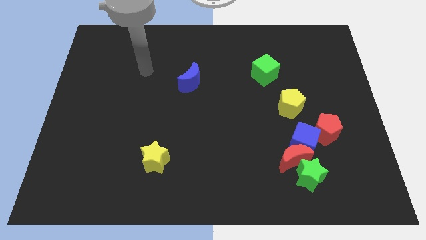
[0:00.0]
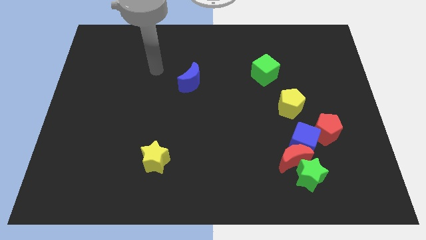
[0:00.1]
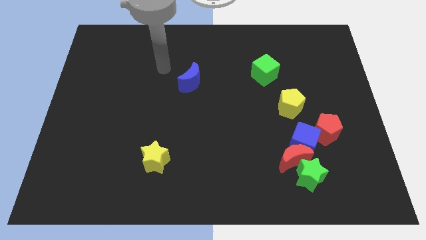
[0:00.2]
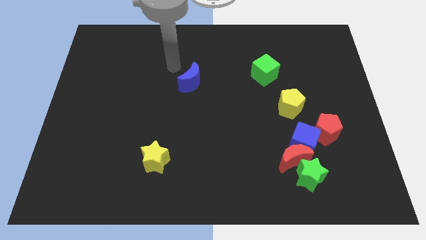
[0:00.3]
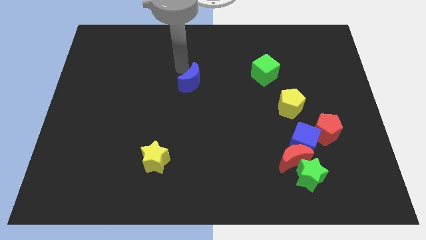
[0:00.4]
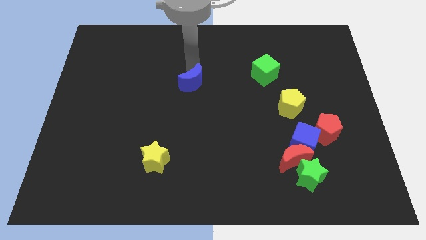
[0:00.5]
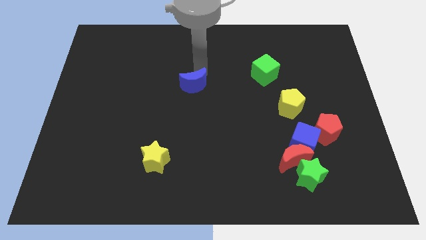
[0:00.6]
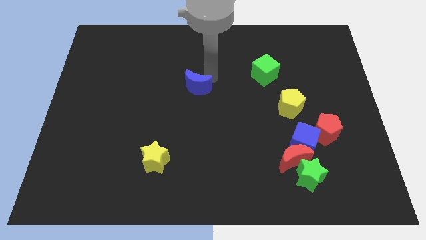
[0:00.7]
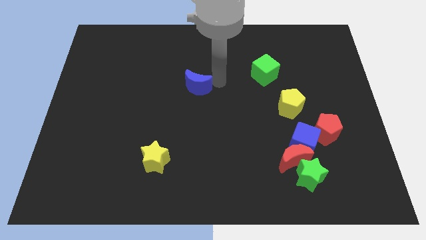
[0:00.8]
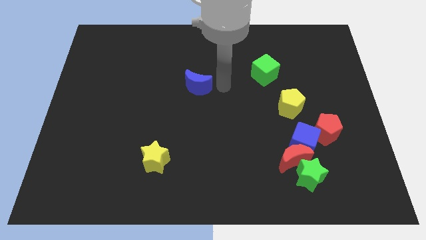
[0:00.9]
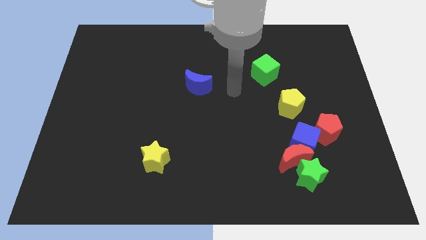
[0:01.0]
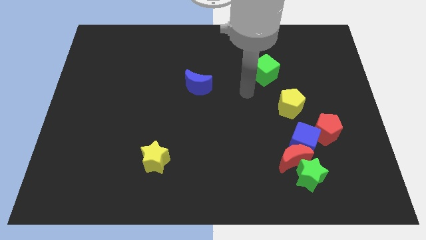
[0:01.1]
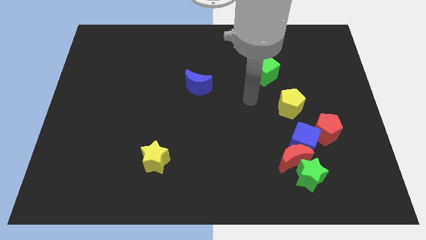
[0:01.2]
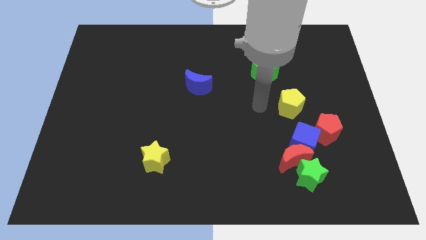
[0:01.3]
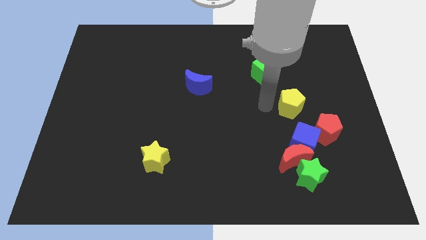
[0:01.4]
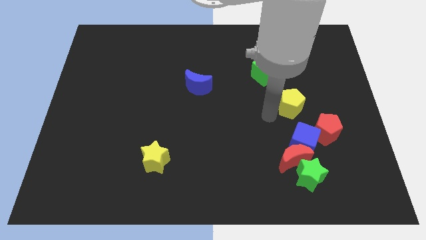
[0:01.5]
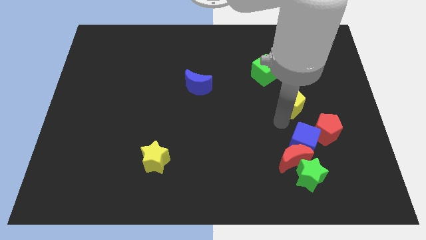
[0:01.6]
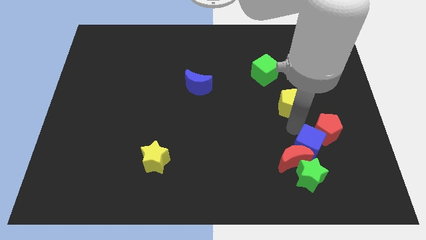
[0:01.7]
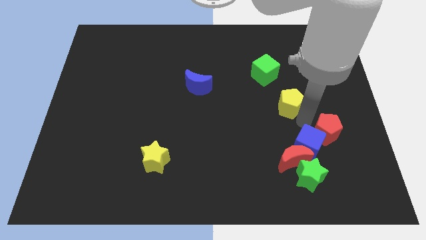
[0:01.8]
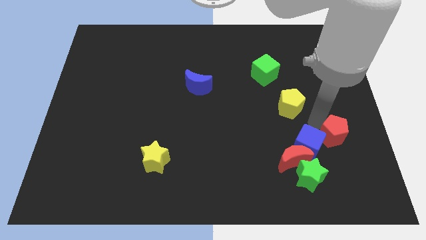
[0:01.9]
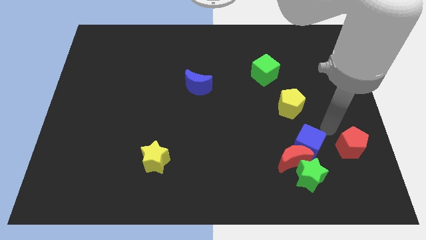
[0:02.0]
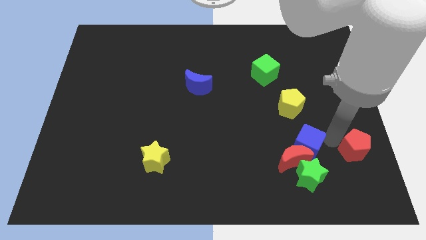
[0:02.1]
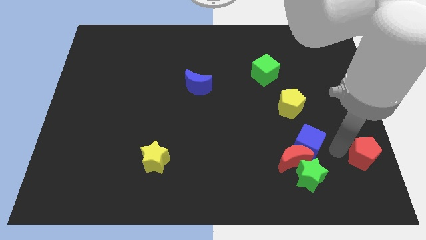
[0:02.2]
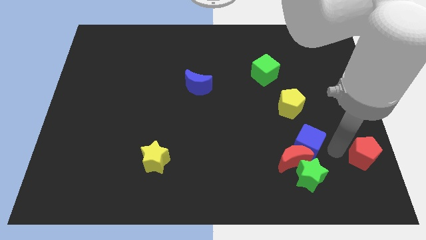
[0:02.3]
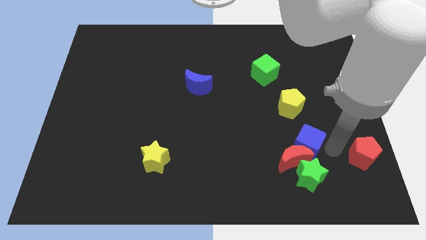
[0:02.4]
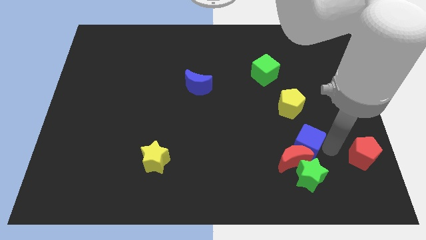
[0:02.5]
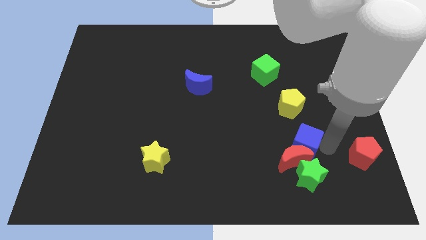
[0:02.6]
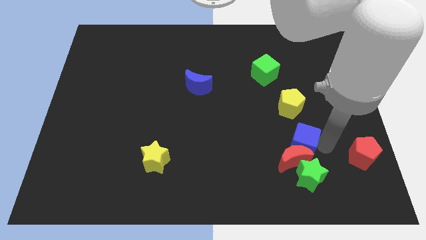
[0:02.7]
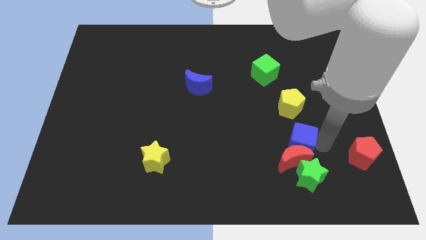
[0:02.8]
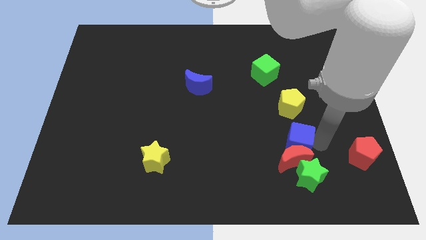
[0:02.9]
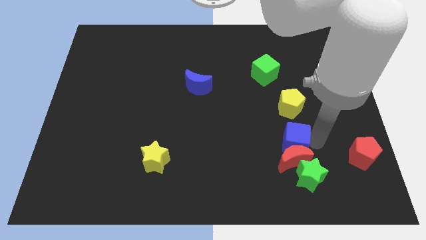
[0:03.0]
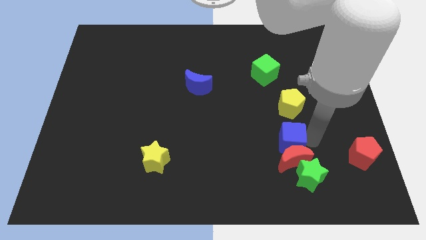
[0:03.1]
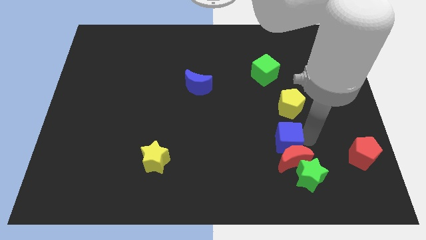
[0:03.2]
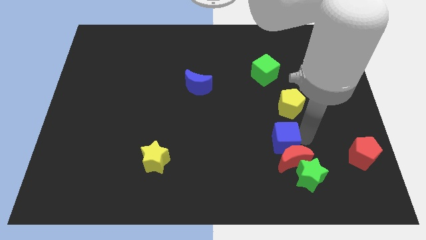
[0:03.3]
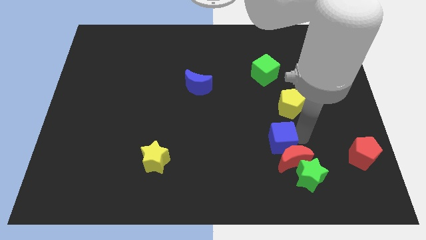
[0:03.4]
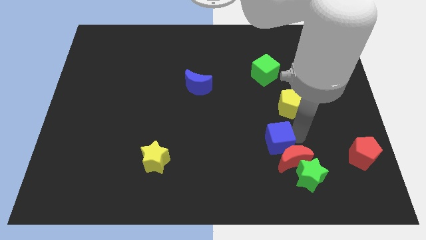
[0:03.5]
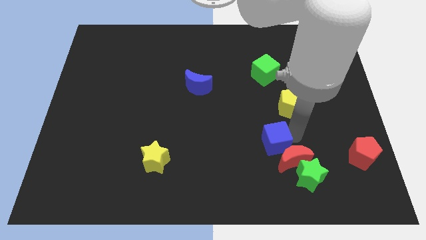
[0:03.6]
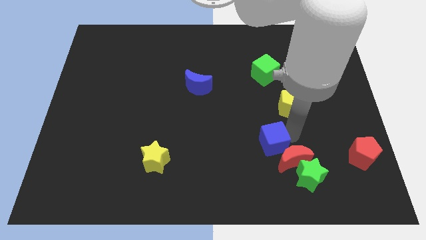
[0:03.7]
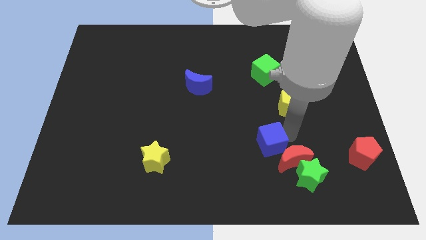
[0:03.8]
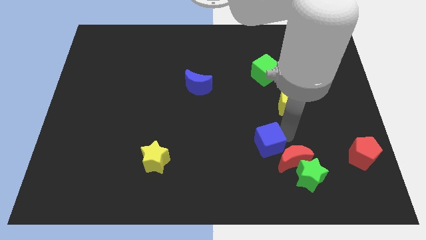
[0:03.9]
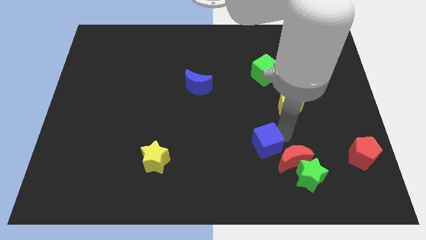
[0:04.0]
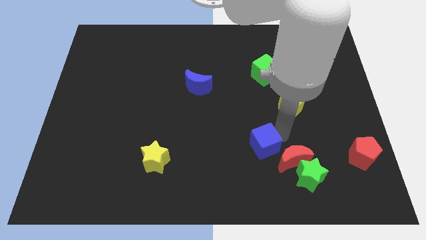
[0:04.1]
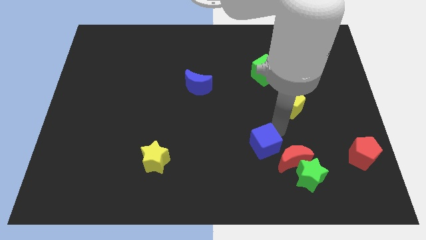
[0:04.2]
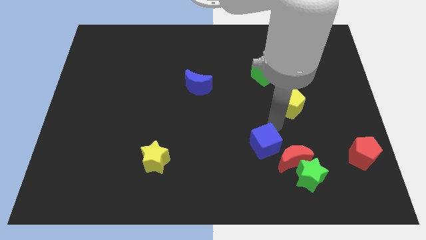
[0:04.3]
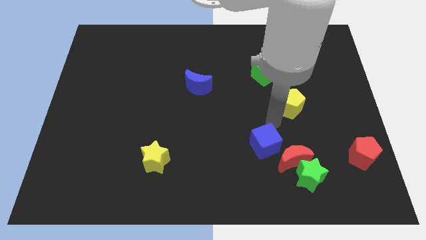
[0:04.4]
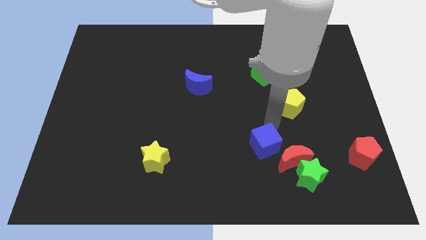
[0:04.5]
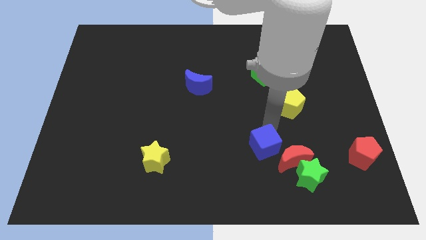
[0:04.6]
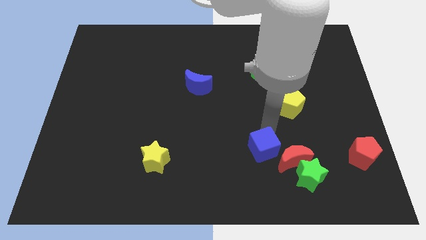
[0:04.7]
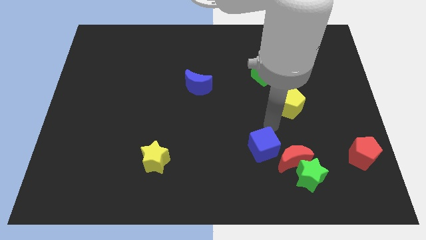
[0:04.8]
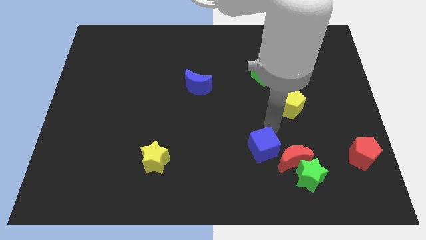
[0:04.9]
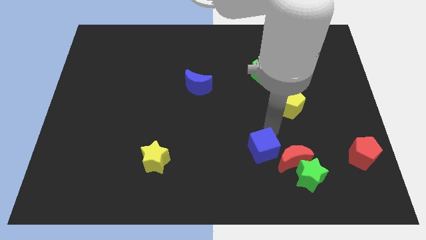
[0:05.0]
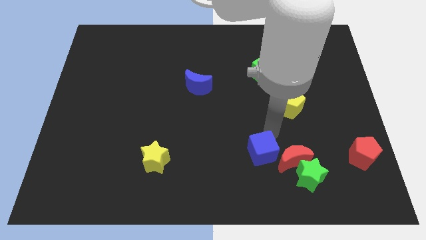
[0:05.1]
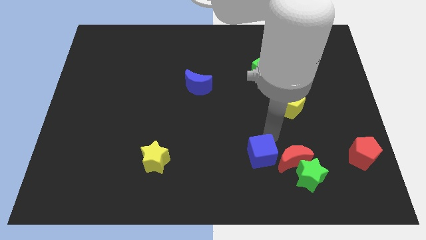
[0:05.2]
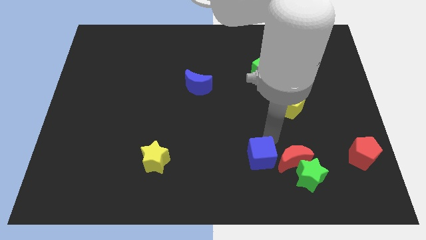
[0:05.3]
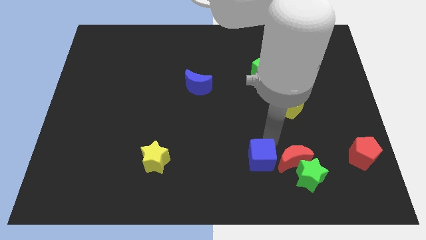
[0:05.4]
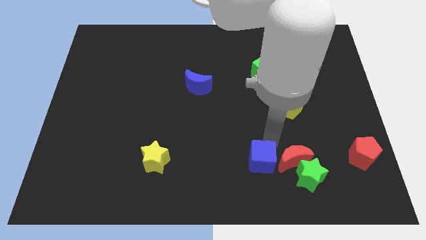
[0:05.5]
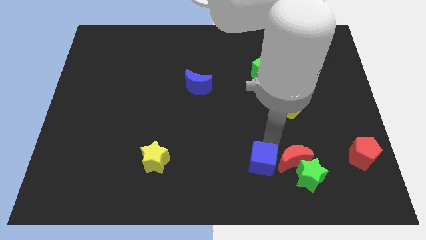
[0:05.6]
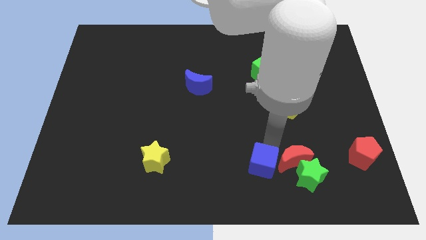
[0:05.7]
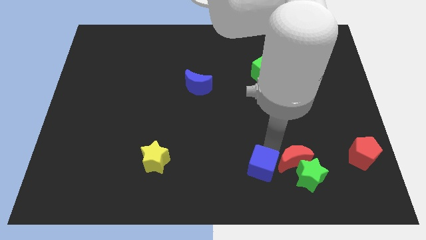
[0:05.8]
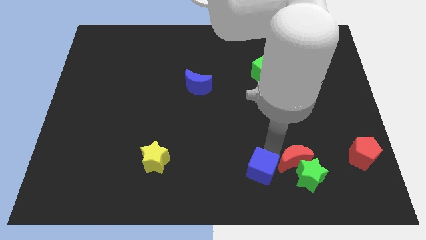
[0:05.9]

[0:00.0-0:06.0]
slide the blue cube to the bottom side
